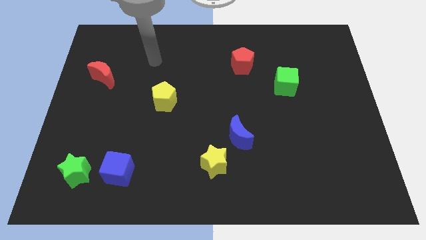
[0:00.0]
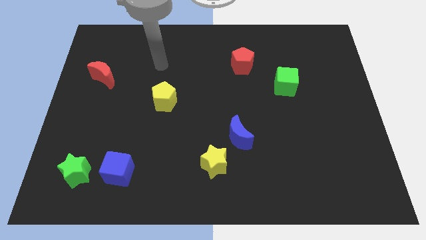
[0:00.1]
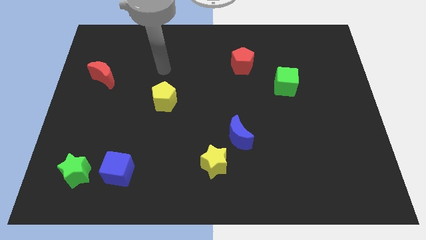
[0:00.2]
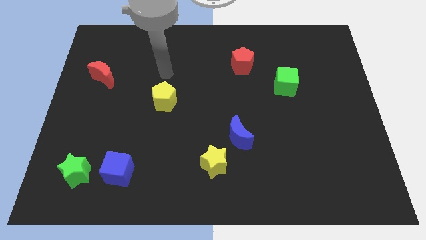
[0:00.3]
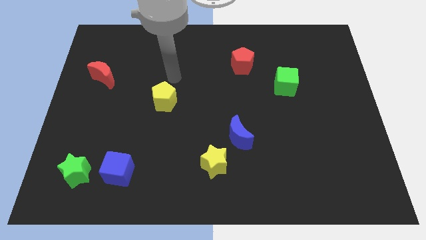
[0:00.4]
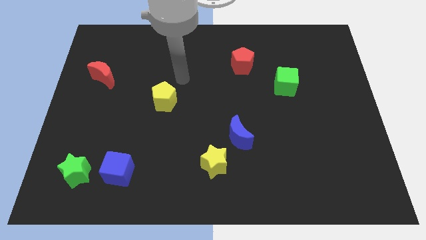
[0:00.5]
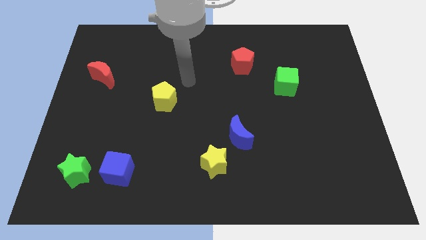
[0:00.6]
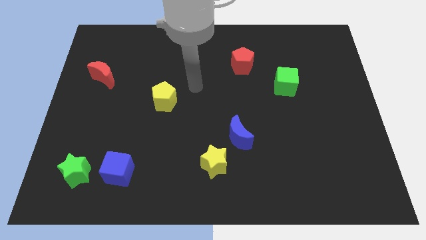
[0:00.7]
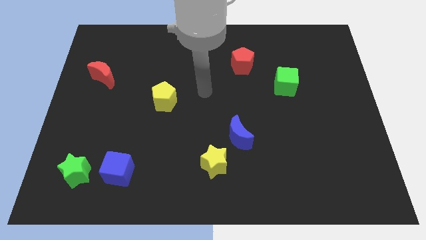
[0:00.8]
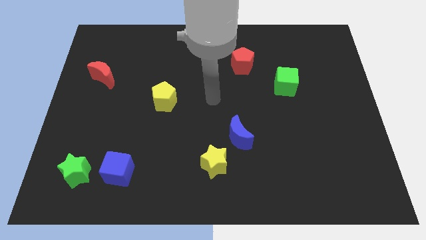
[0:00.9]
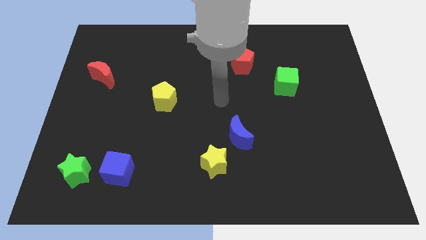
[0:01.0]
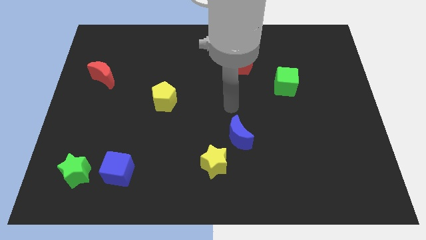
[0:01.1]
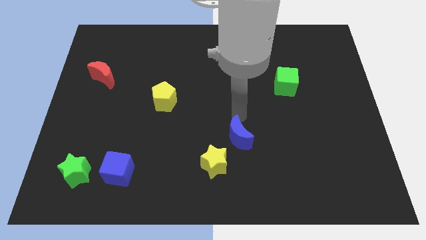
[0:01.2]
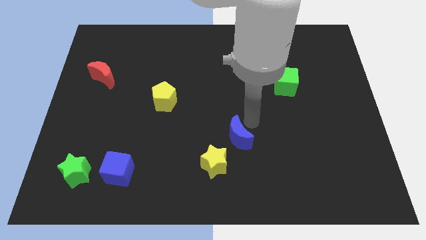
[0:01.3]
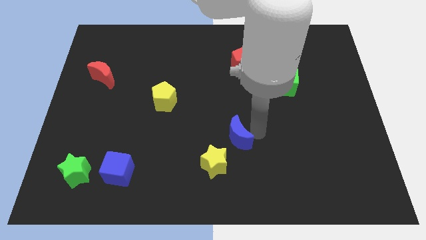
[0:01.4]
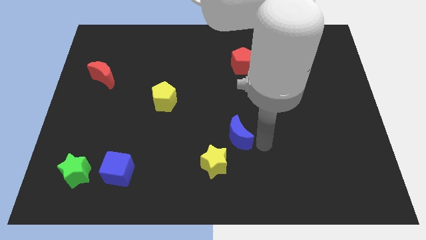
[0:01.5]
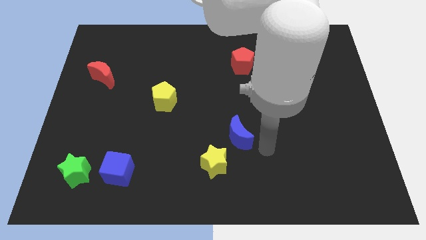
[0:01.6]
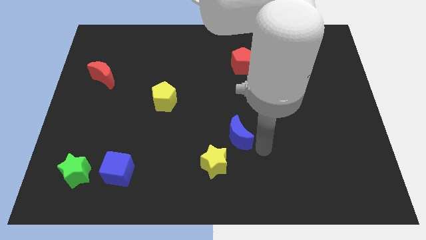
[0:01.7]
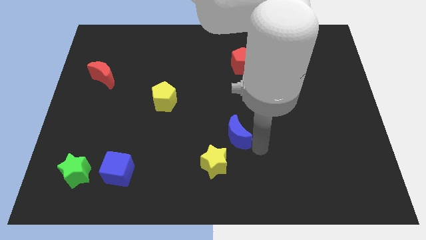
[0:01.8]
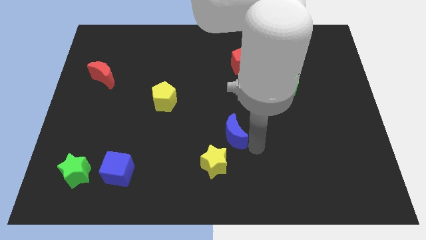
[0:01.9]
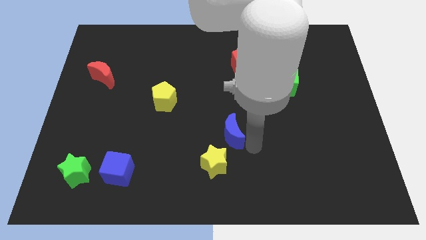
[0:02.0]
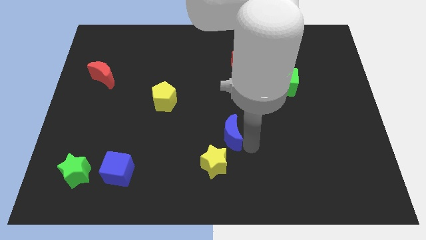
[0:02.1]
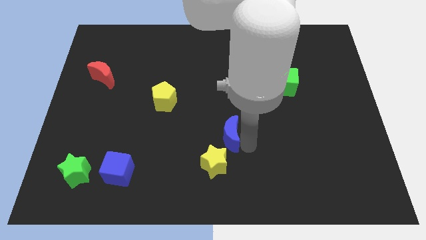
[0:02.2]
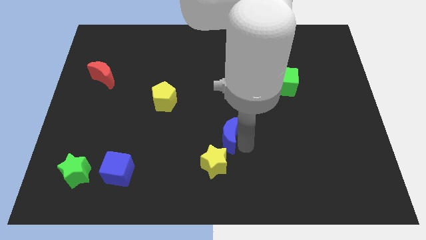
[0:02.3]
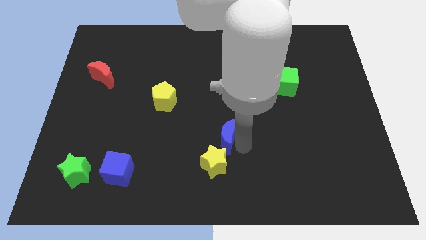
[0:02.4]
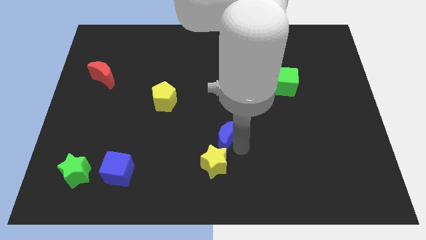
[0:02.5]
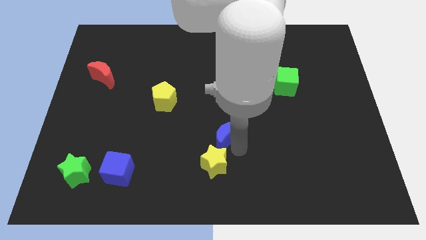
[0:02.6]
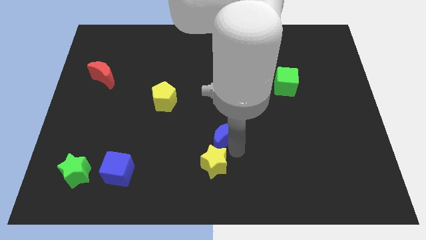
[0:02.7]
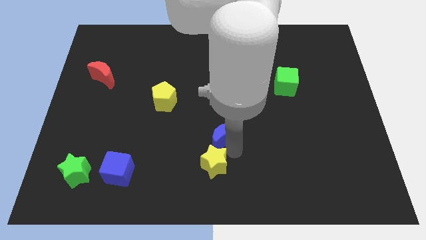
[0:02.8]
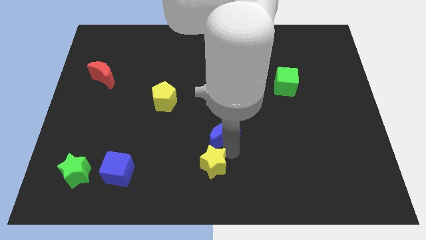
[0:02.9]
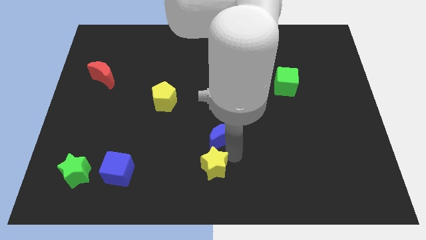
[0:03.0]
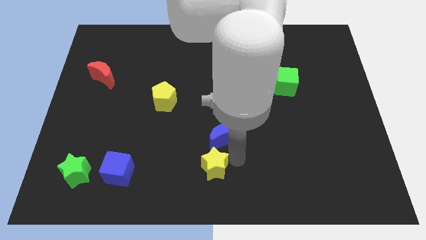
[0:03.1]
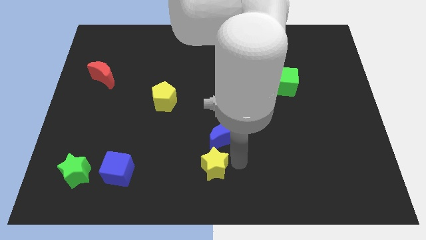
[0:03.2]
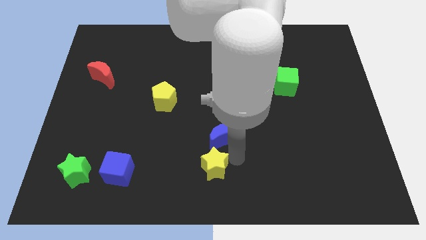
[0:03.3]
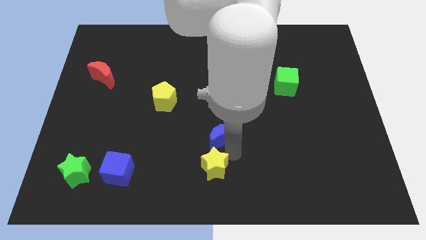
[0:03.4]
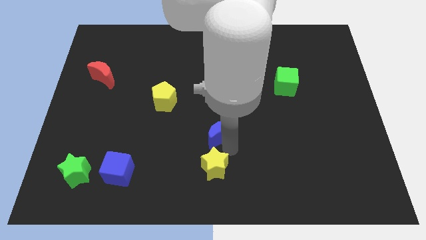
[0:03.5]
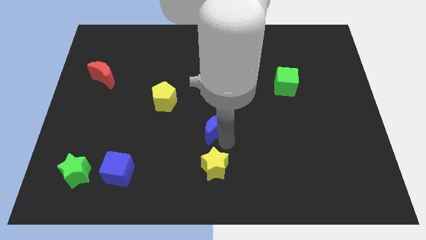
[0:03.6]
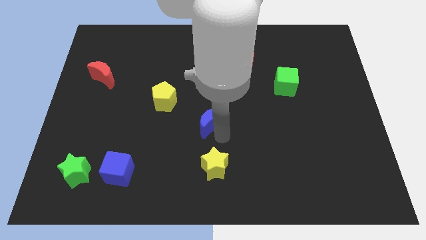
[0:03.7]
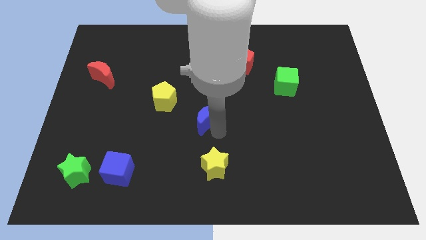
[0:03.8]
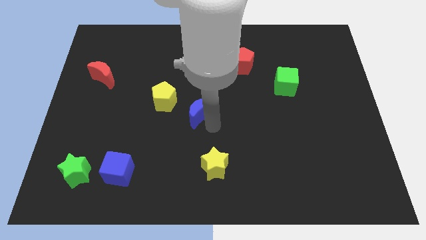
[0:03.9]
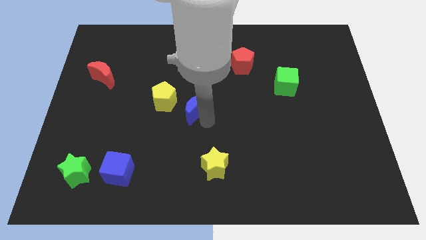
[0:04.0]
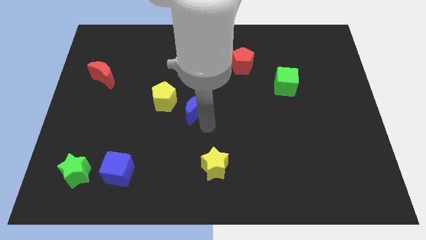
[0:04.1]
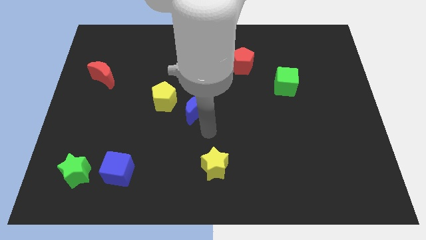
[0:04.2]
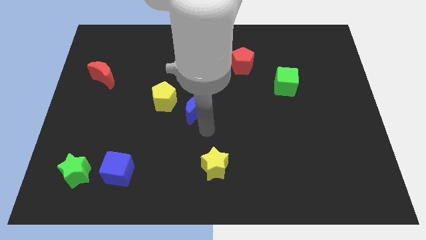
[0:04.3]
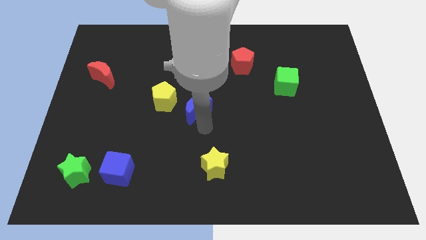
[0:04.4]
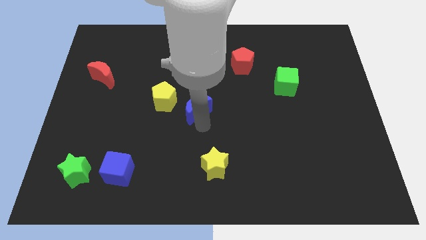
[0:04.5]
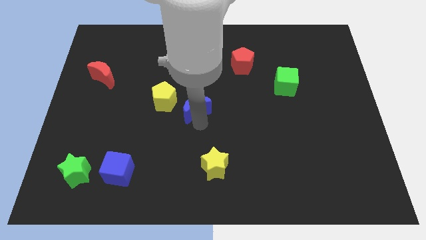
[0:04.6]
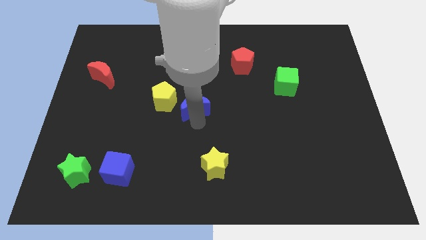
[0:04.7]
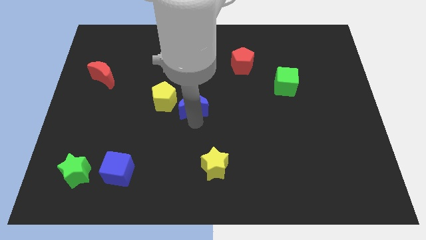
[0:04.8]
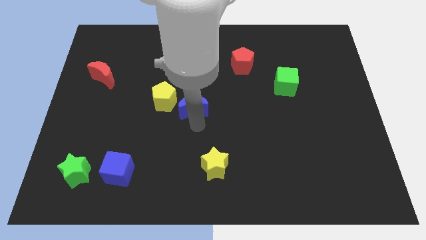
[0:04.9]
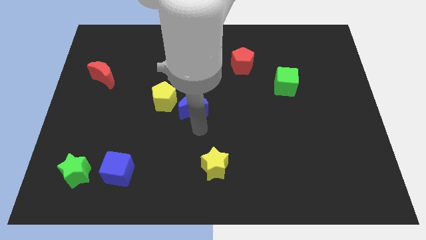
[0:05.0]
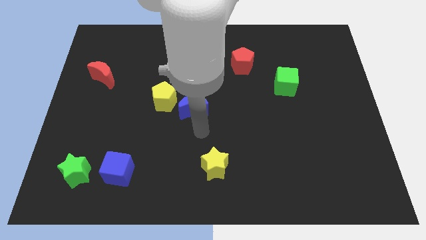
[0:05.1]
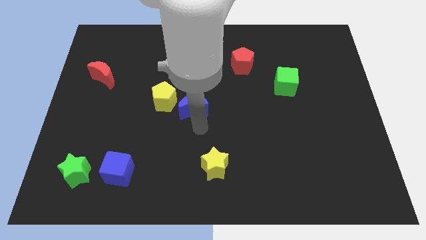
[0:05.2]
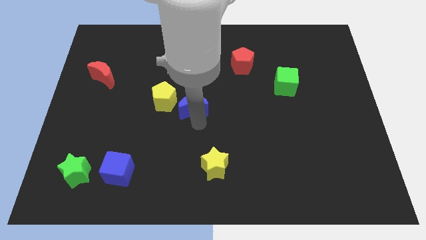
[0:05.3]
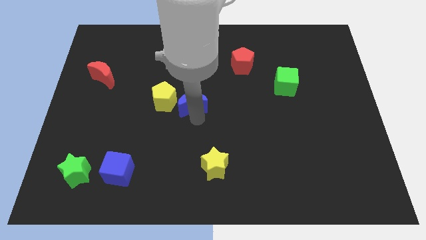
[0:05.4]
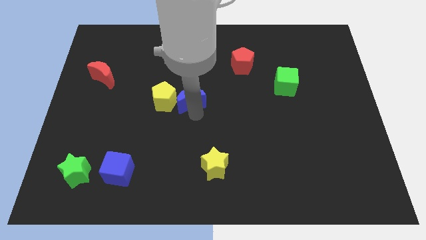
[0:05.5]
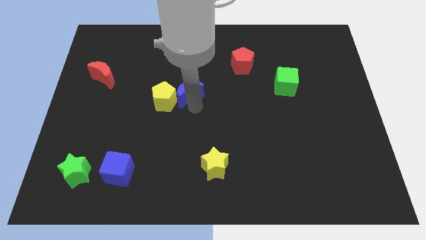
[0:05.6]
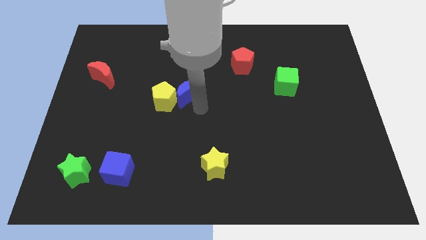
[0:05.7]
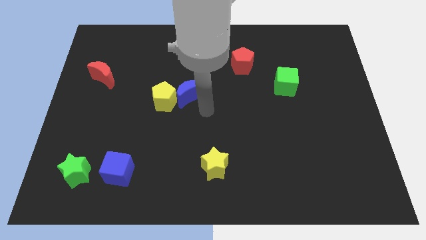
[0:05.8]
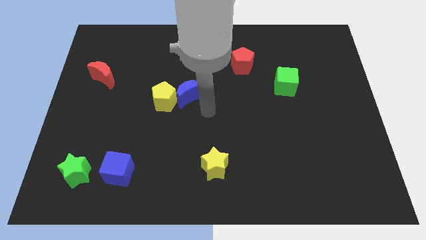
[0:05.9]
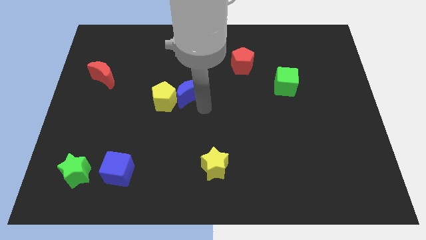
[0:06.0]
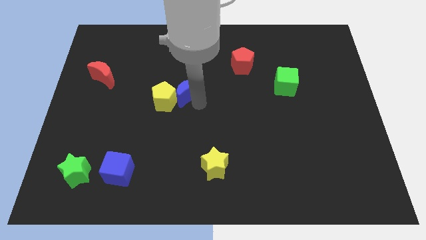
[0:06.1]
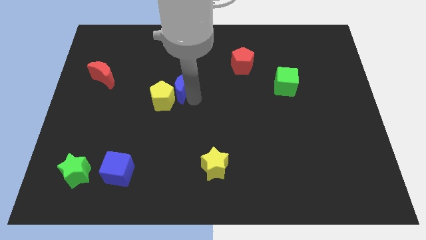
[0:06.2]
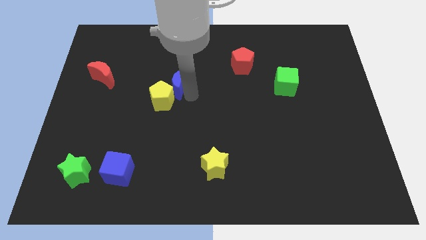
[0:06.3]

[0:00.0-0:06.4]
move the blue moon up and to the left diagonally

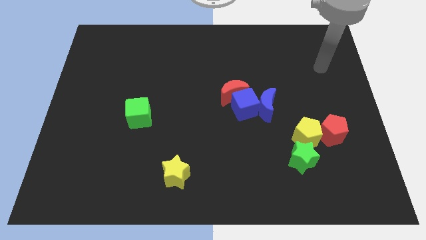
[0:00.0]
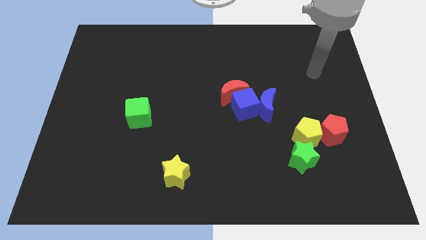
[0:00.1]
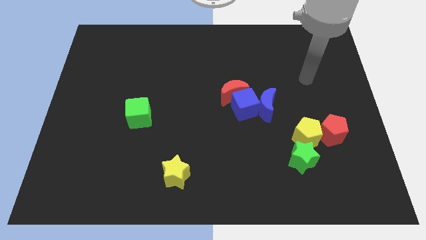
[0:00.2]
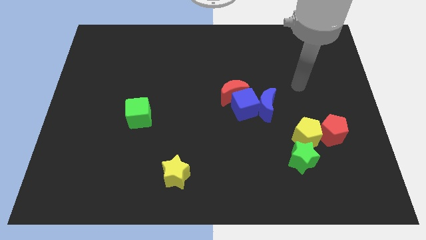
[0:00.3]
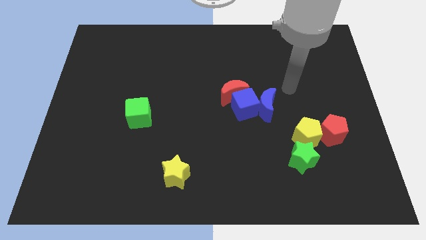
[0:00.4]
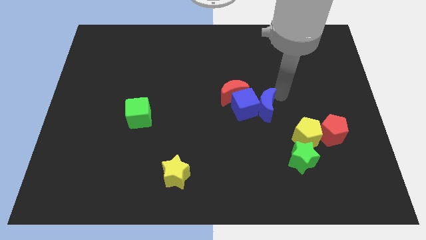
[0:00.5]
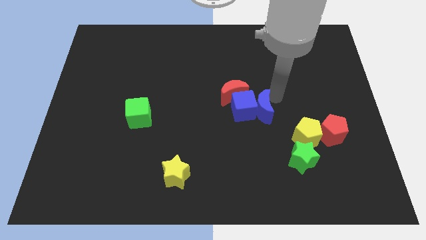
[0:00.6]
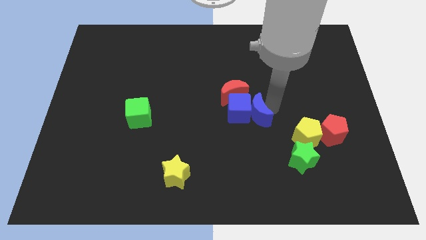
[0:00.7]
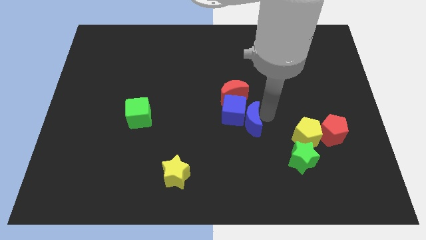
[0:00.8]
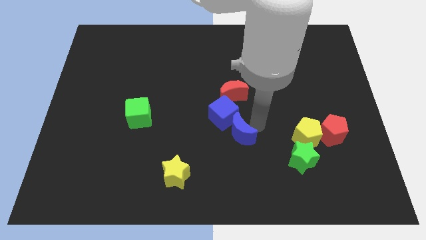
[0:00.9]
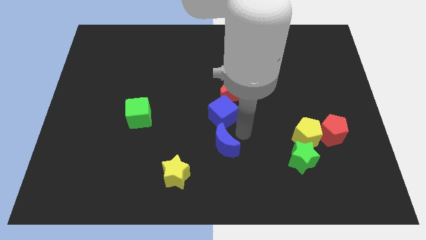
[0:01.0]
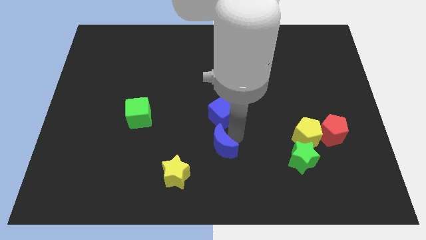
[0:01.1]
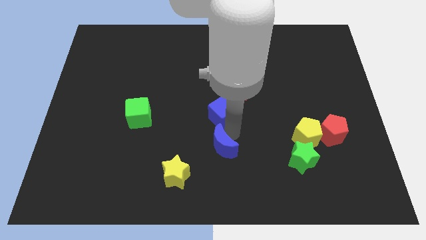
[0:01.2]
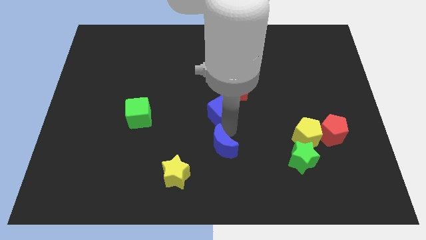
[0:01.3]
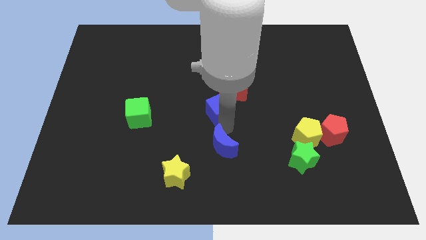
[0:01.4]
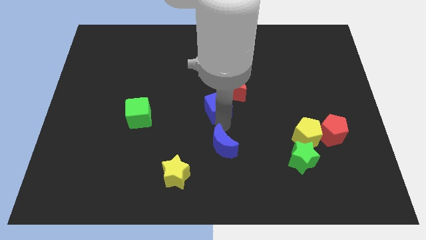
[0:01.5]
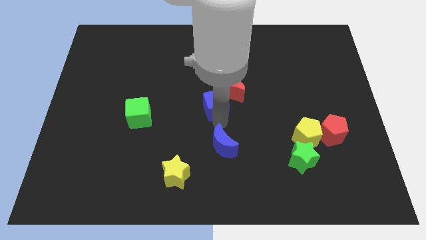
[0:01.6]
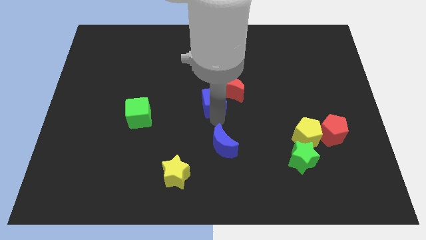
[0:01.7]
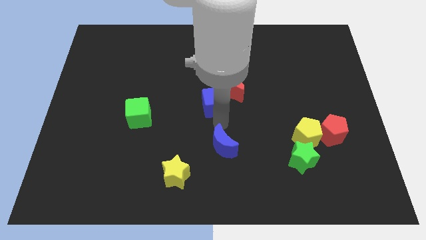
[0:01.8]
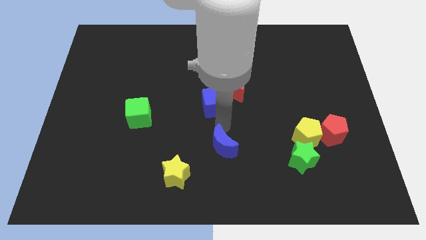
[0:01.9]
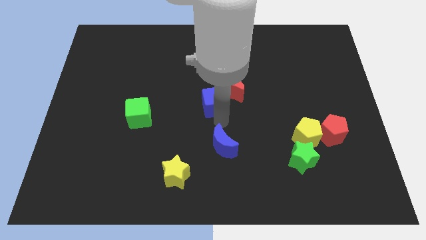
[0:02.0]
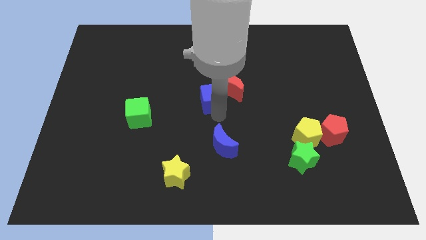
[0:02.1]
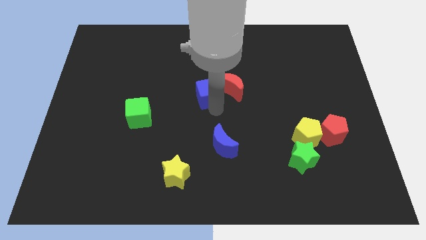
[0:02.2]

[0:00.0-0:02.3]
slide the blue cube diagonally up and left a little bit
